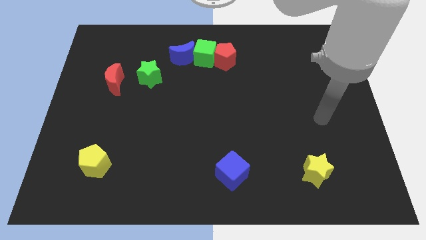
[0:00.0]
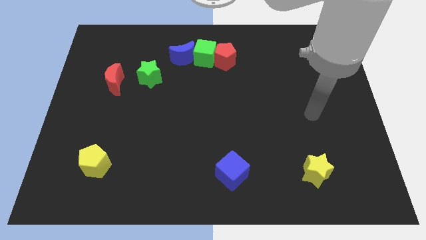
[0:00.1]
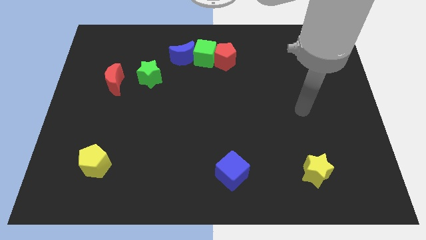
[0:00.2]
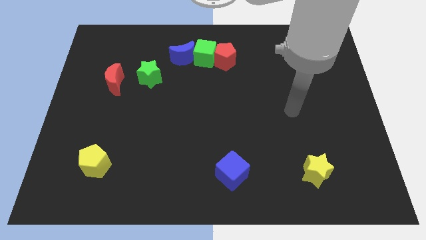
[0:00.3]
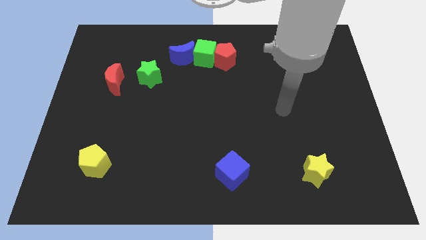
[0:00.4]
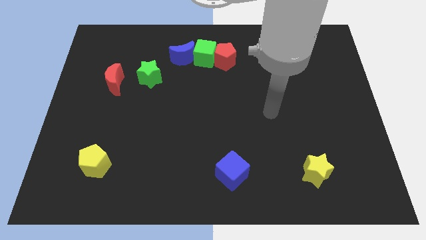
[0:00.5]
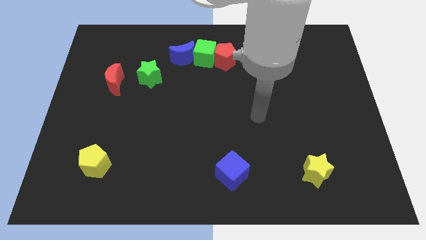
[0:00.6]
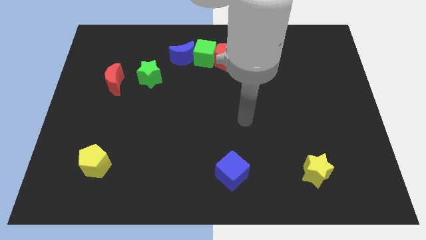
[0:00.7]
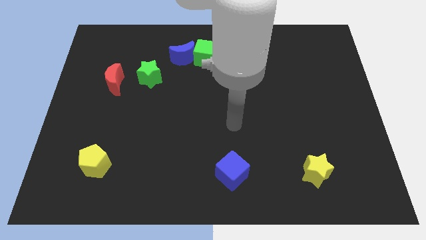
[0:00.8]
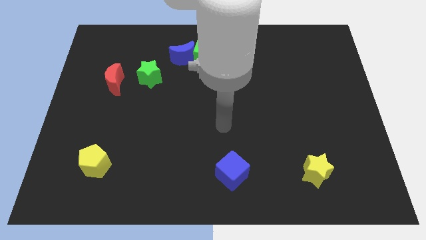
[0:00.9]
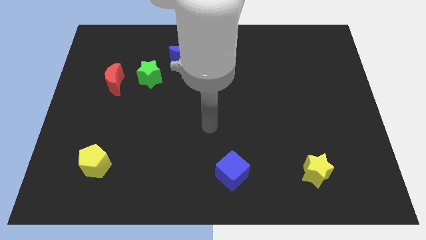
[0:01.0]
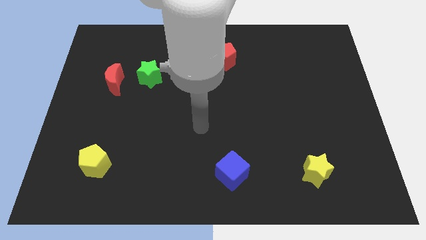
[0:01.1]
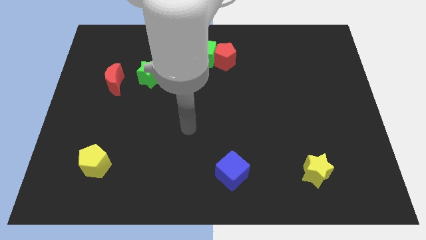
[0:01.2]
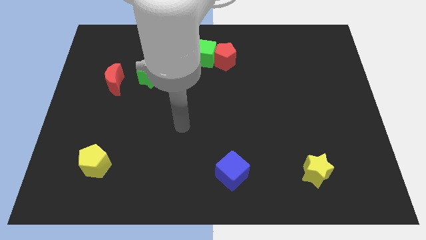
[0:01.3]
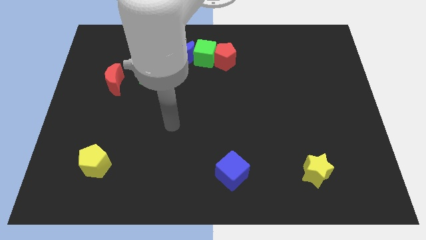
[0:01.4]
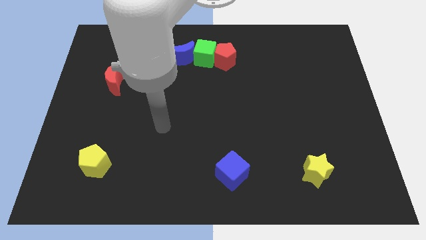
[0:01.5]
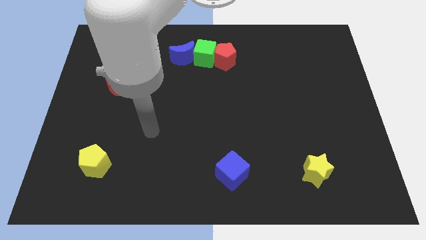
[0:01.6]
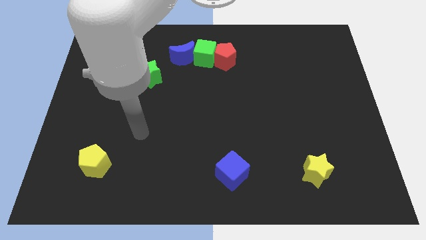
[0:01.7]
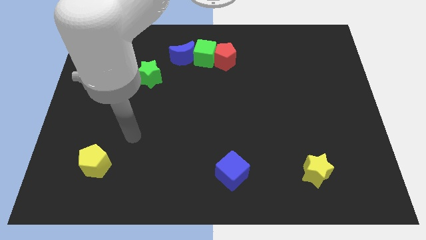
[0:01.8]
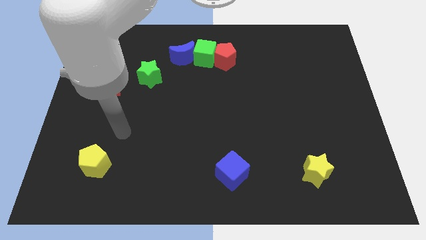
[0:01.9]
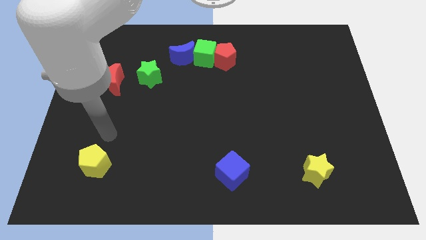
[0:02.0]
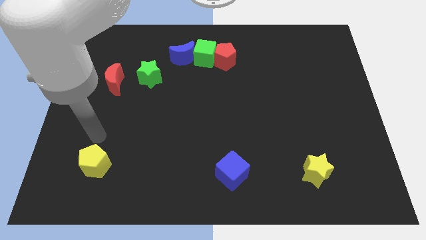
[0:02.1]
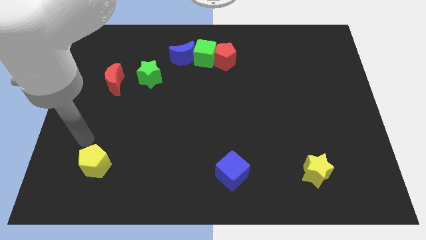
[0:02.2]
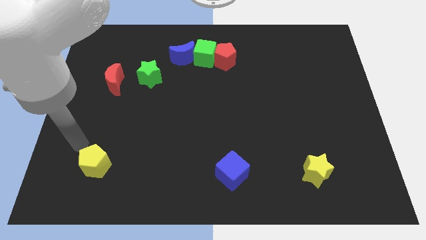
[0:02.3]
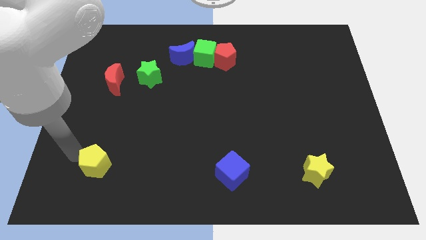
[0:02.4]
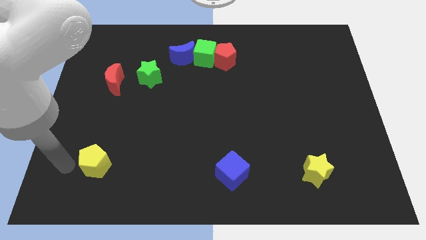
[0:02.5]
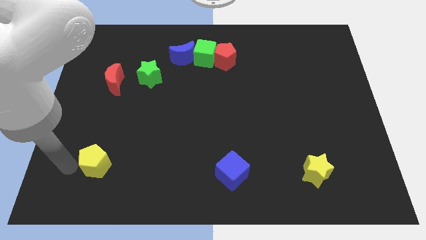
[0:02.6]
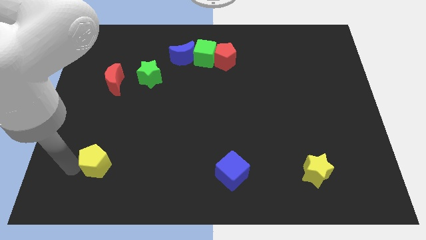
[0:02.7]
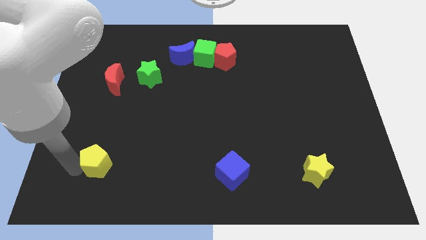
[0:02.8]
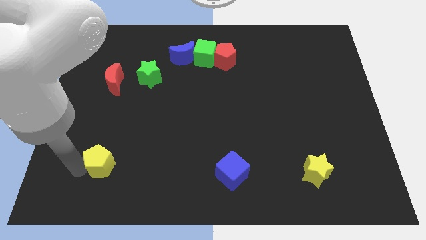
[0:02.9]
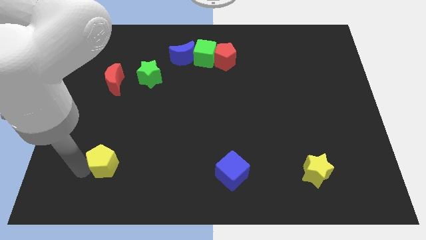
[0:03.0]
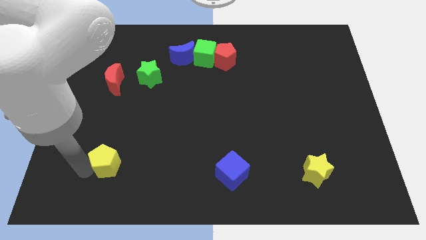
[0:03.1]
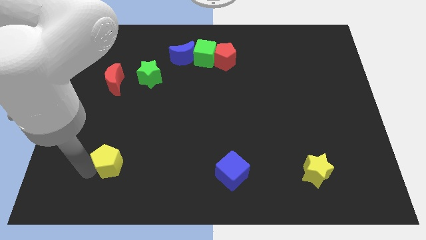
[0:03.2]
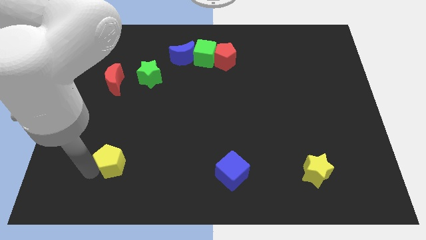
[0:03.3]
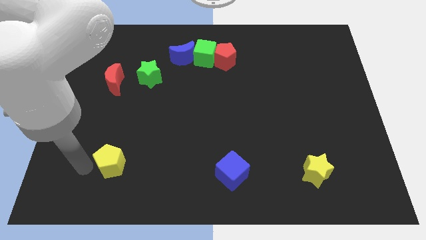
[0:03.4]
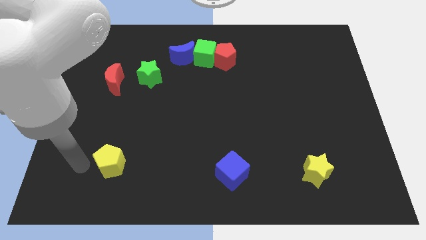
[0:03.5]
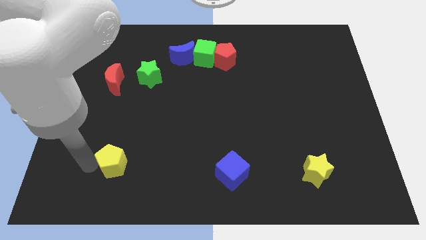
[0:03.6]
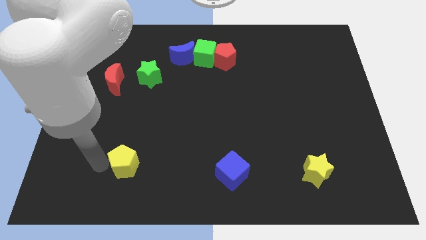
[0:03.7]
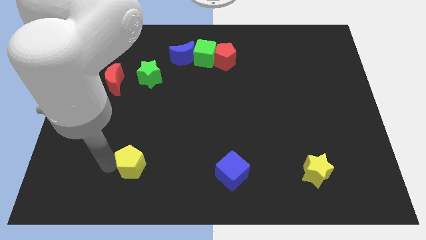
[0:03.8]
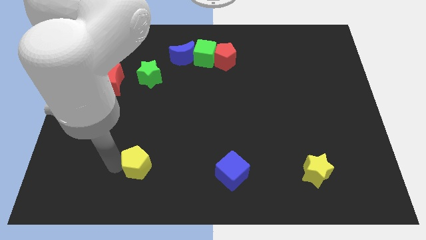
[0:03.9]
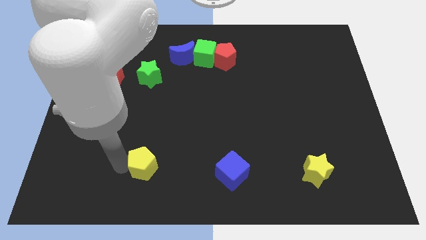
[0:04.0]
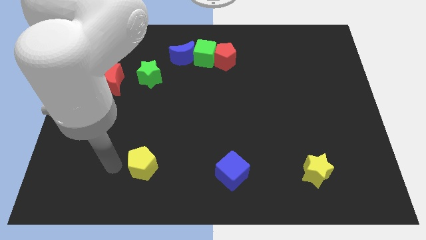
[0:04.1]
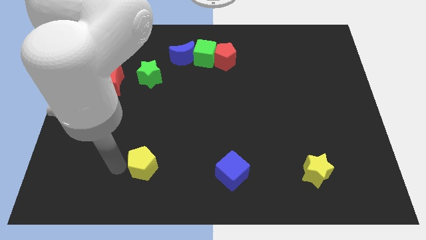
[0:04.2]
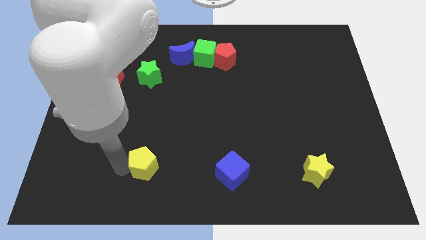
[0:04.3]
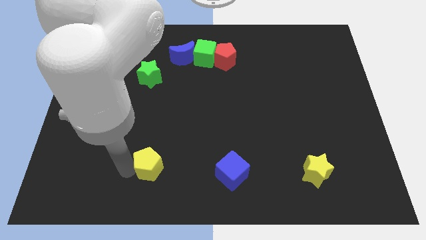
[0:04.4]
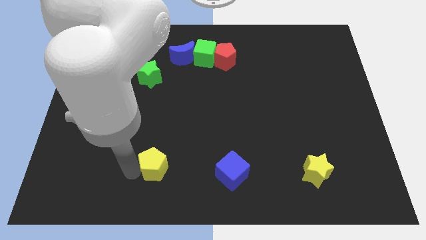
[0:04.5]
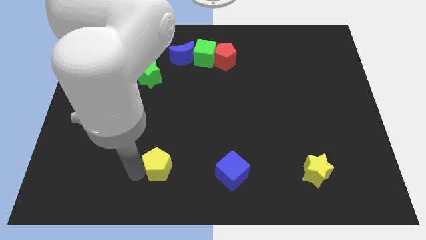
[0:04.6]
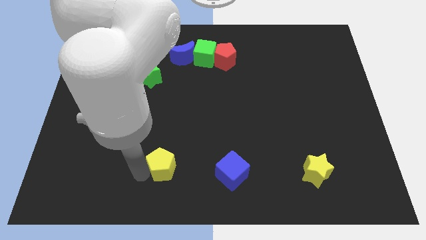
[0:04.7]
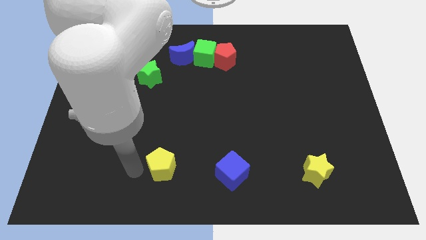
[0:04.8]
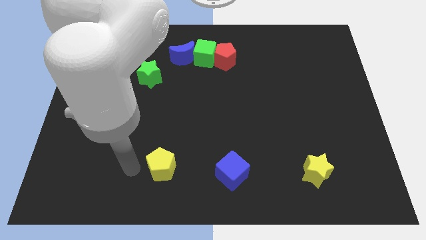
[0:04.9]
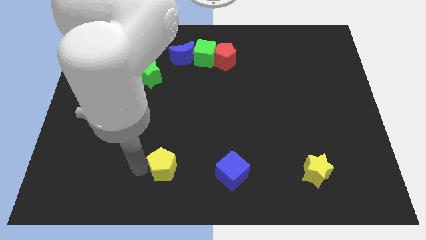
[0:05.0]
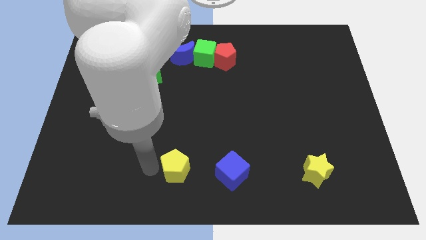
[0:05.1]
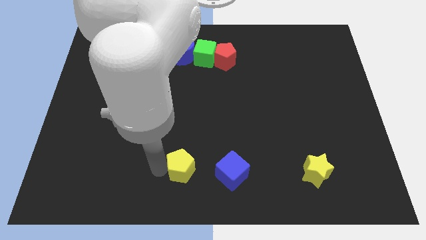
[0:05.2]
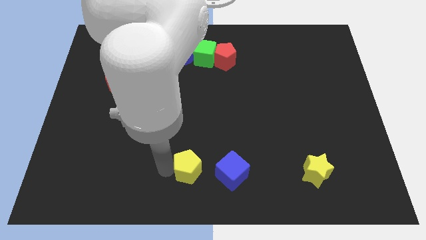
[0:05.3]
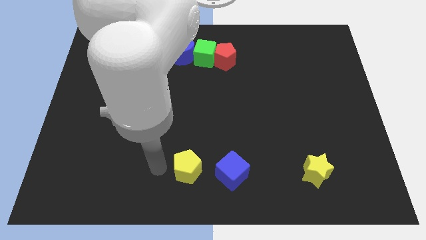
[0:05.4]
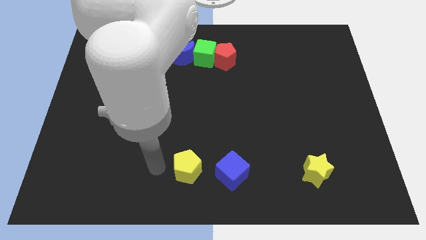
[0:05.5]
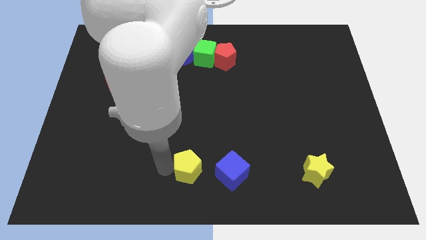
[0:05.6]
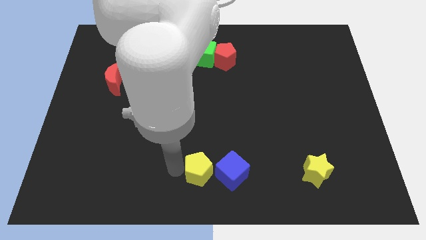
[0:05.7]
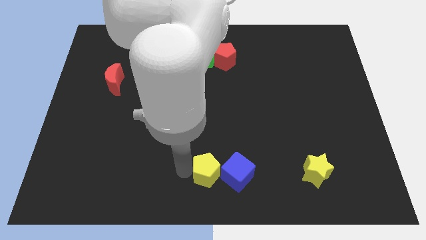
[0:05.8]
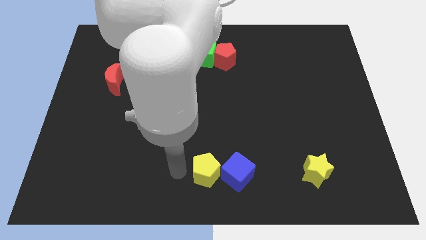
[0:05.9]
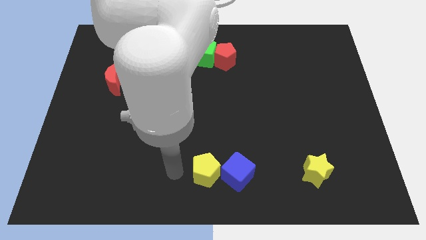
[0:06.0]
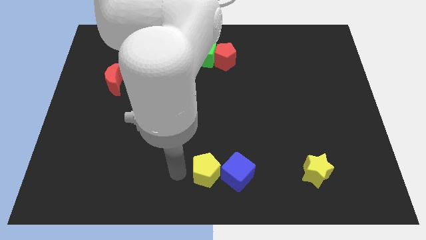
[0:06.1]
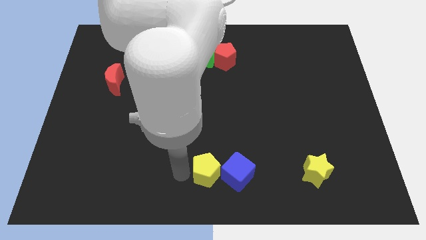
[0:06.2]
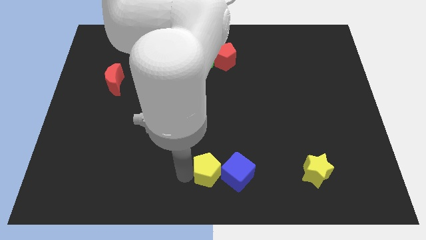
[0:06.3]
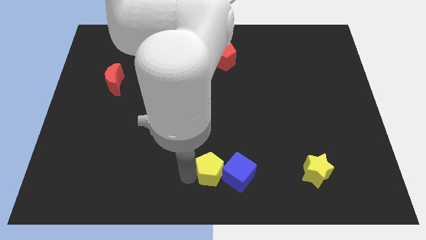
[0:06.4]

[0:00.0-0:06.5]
push the yellow pentagon next to the blue cube
